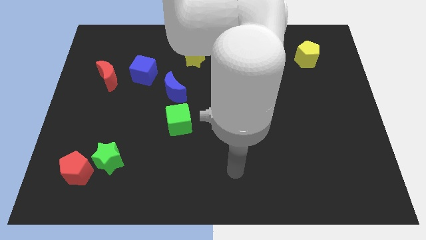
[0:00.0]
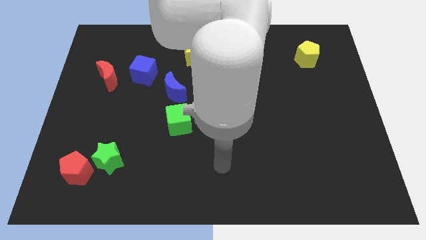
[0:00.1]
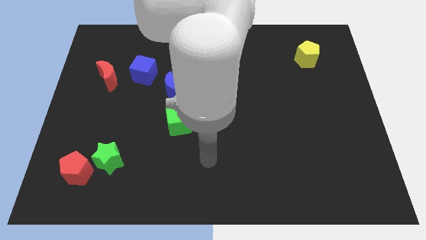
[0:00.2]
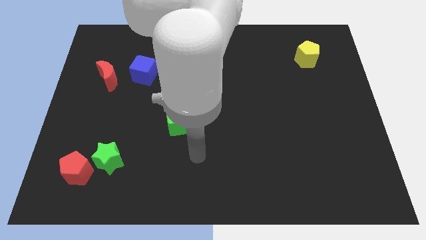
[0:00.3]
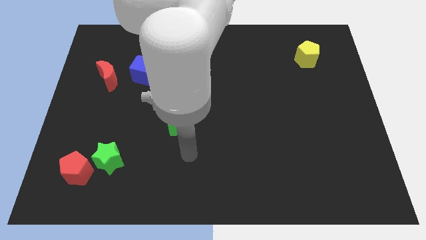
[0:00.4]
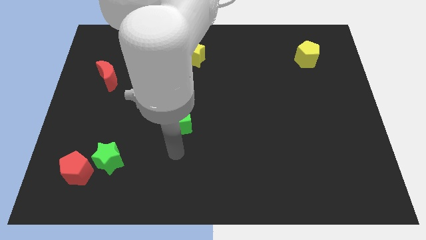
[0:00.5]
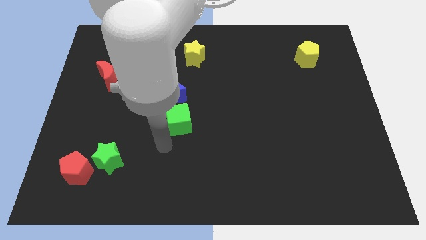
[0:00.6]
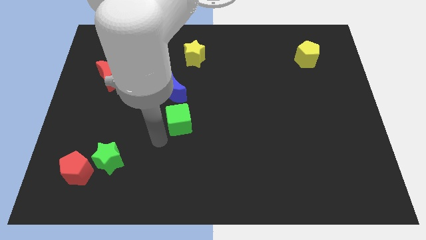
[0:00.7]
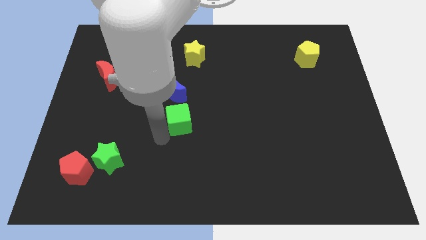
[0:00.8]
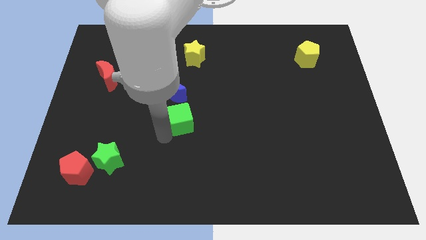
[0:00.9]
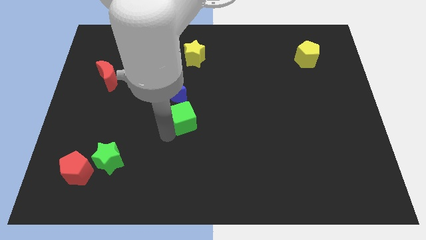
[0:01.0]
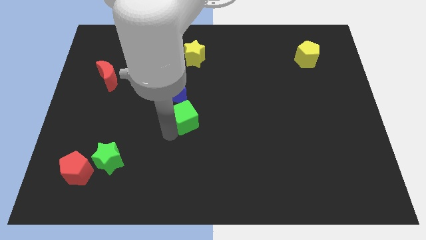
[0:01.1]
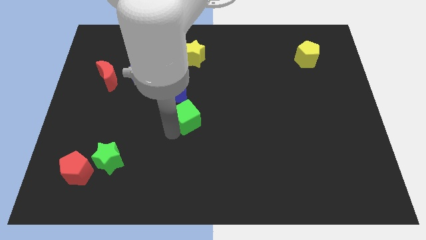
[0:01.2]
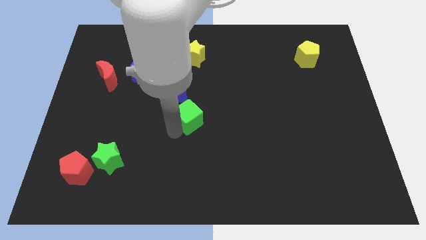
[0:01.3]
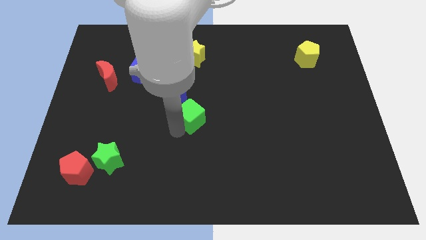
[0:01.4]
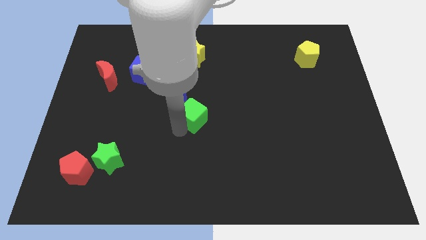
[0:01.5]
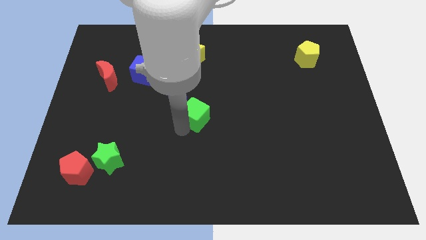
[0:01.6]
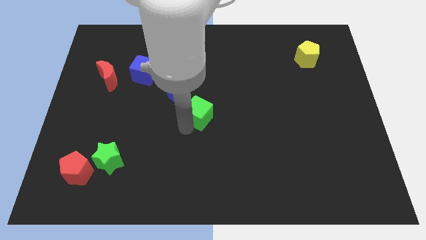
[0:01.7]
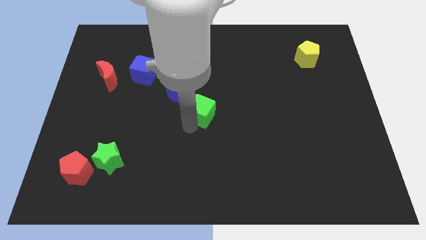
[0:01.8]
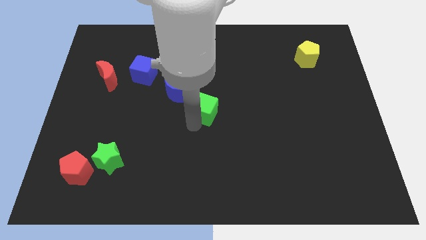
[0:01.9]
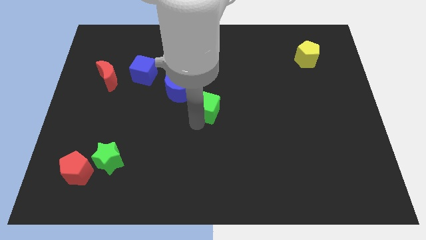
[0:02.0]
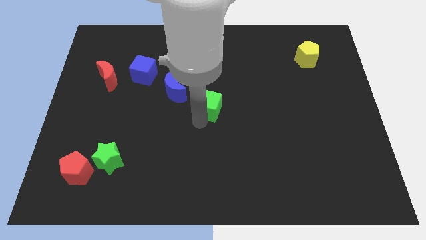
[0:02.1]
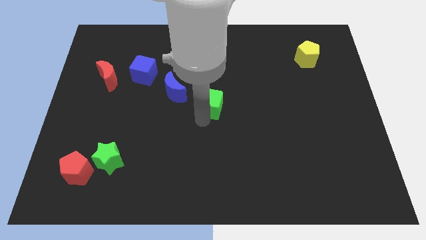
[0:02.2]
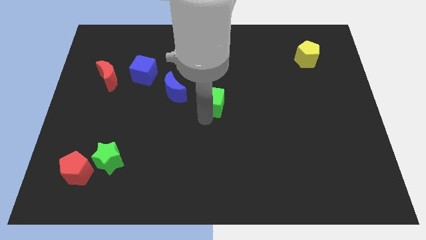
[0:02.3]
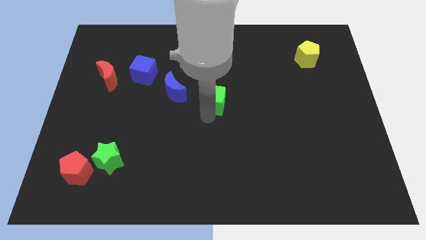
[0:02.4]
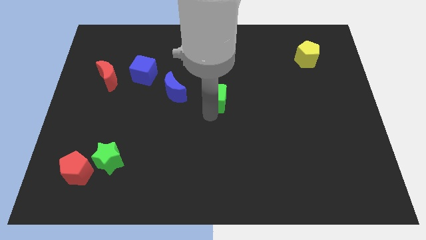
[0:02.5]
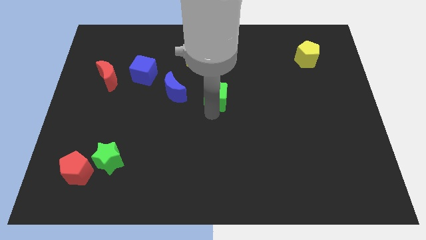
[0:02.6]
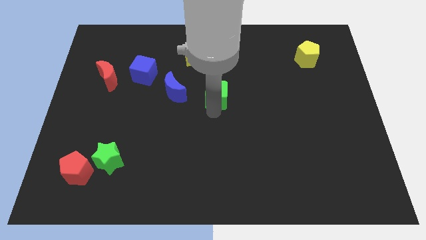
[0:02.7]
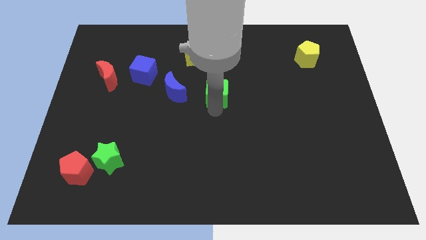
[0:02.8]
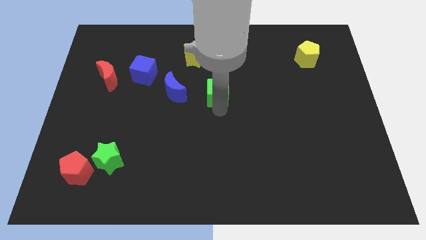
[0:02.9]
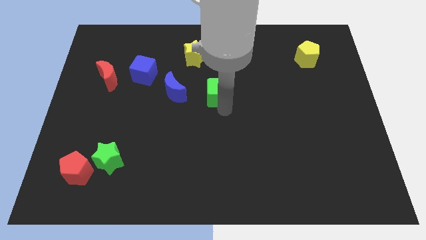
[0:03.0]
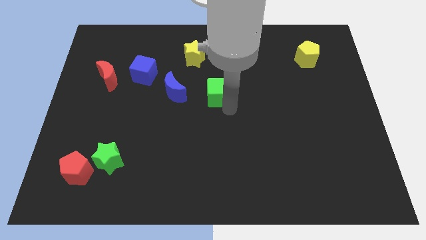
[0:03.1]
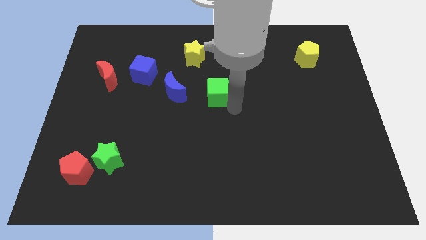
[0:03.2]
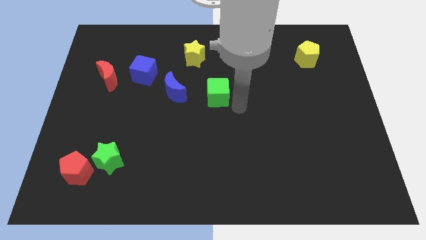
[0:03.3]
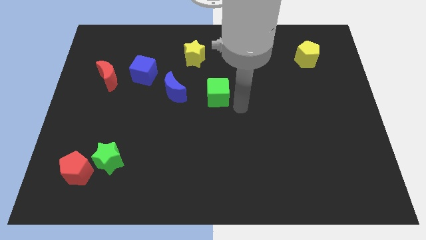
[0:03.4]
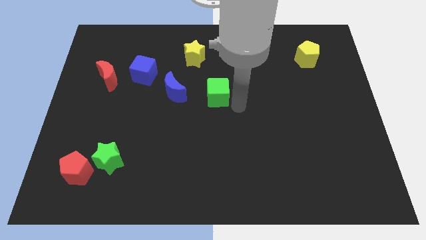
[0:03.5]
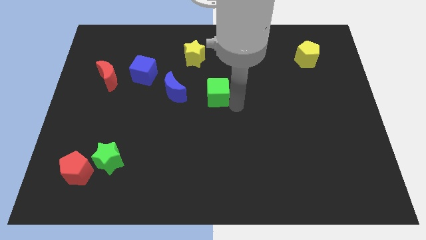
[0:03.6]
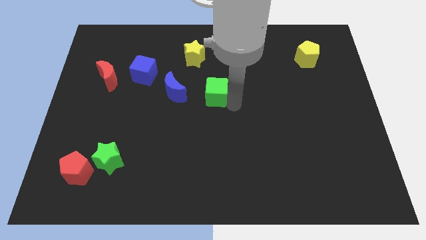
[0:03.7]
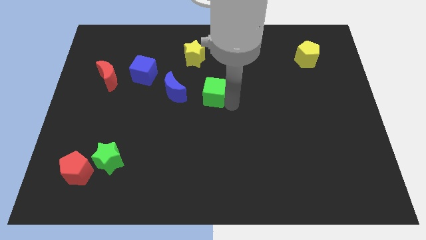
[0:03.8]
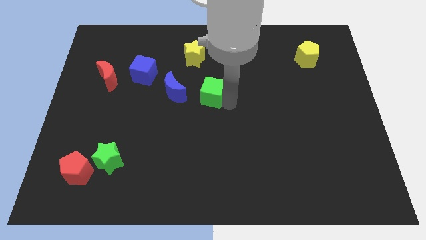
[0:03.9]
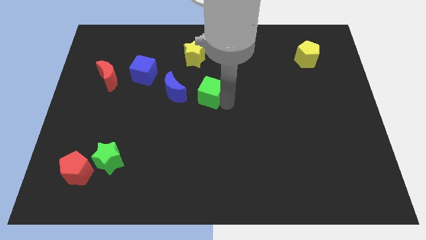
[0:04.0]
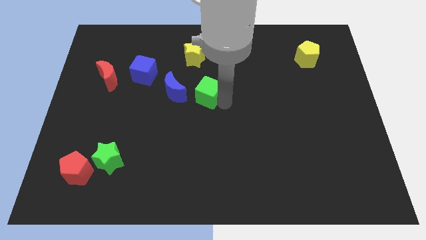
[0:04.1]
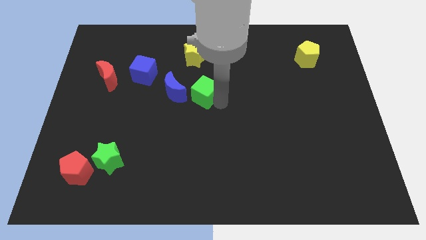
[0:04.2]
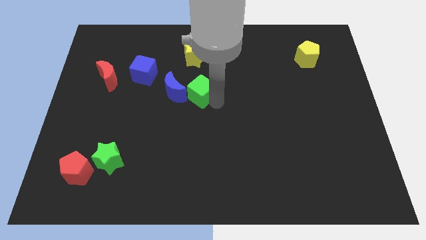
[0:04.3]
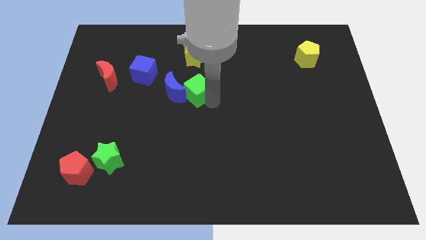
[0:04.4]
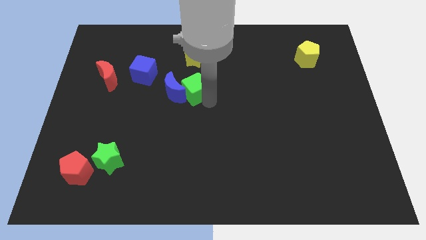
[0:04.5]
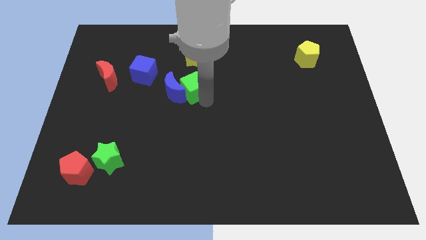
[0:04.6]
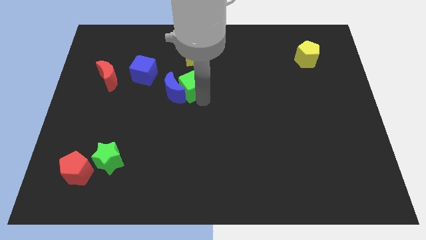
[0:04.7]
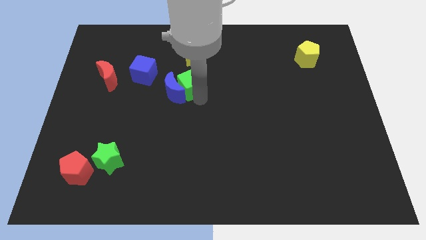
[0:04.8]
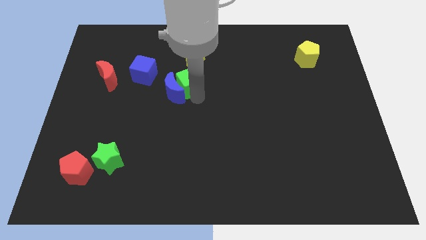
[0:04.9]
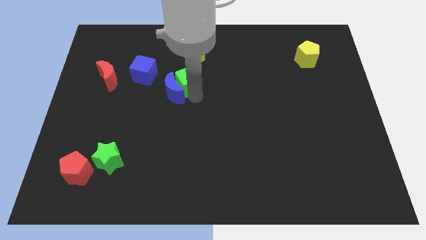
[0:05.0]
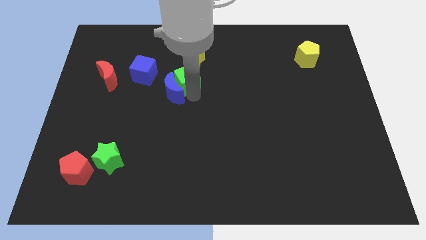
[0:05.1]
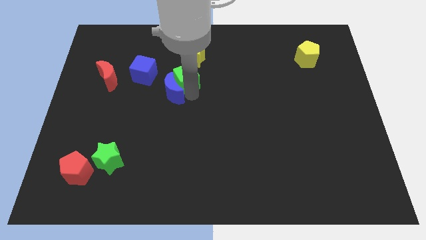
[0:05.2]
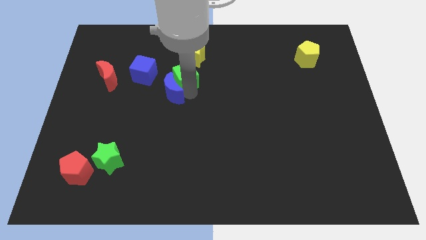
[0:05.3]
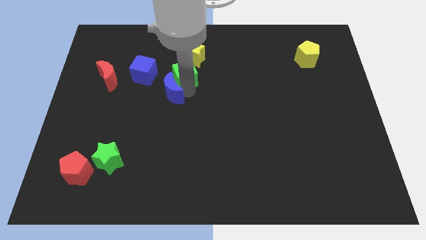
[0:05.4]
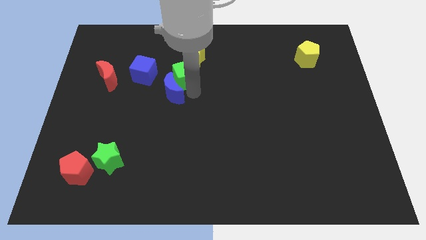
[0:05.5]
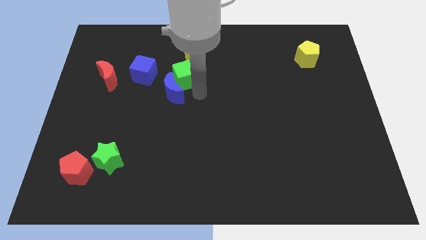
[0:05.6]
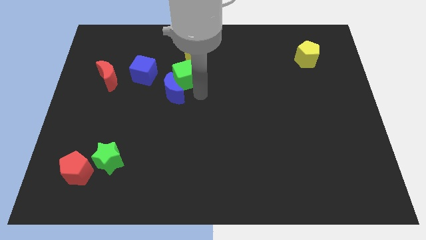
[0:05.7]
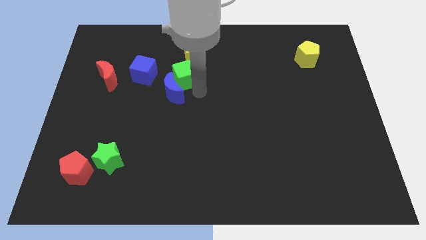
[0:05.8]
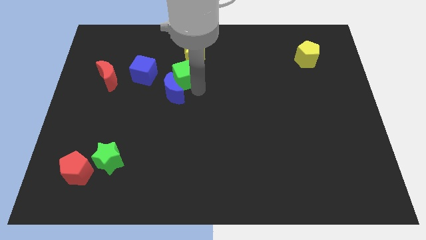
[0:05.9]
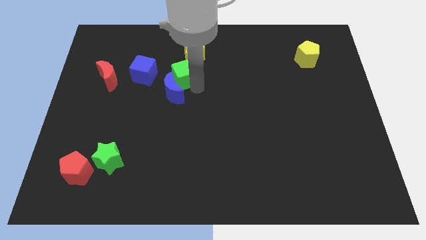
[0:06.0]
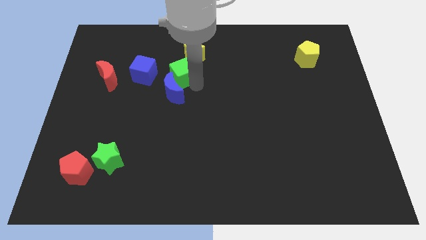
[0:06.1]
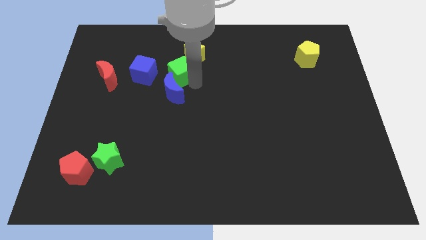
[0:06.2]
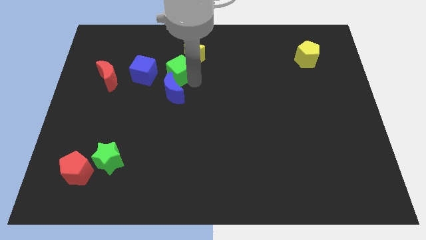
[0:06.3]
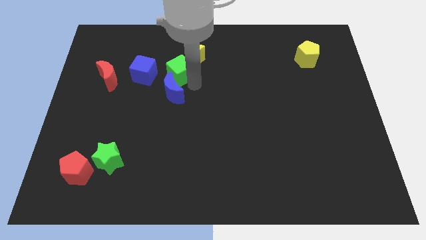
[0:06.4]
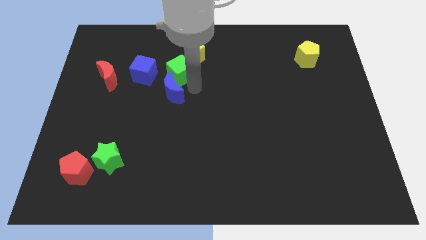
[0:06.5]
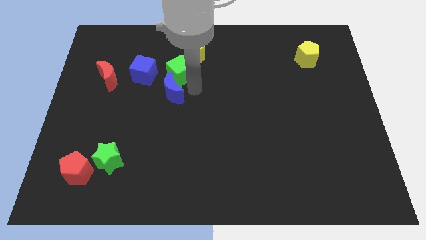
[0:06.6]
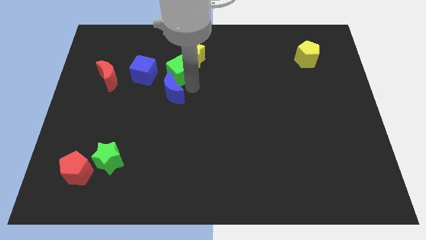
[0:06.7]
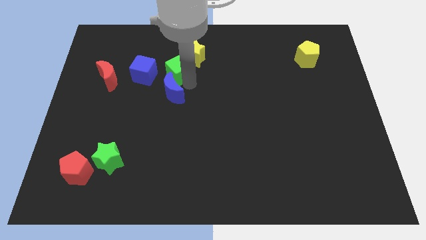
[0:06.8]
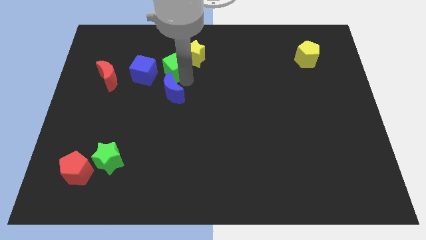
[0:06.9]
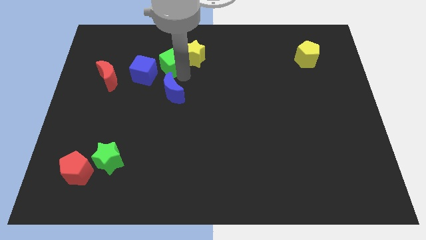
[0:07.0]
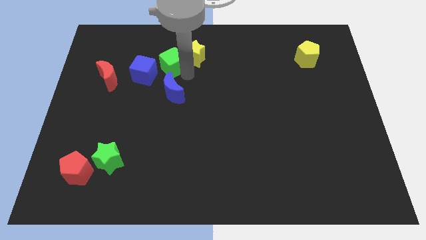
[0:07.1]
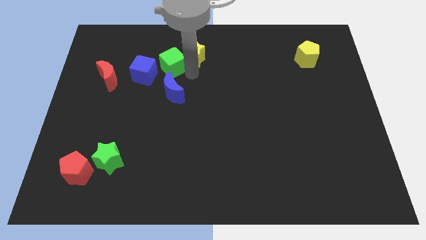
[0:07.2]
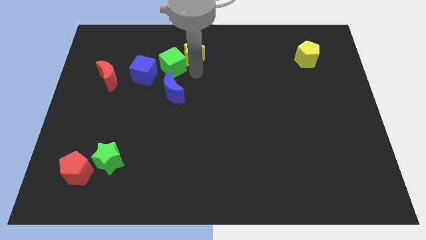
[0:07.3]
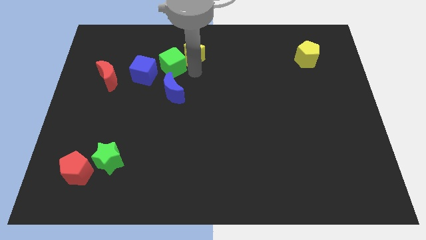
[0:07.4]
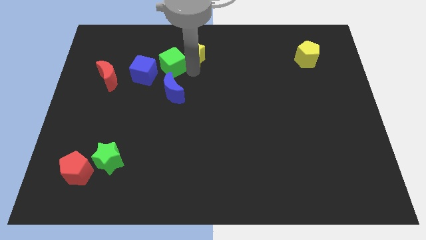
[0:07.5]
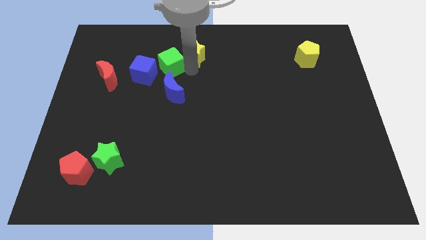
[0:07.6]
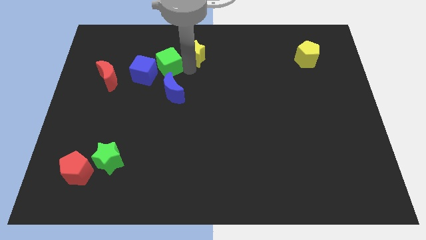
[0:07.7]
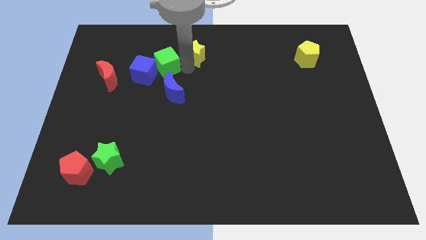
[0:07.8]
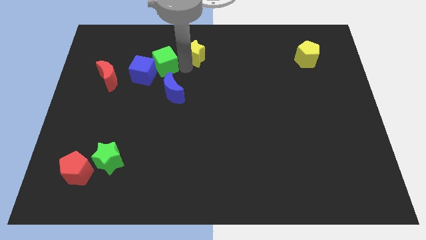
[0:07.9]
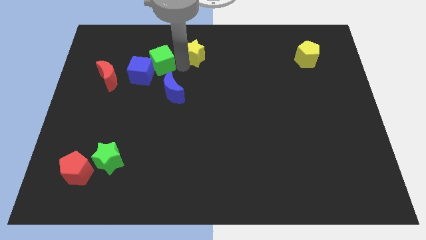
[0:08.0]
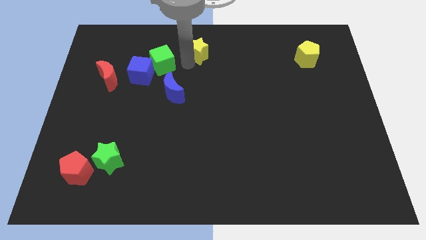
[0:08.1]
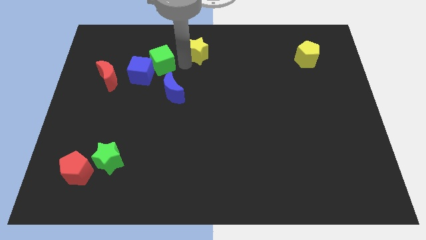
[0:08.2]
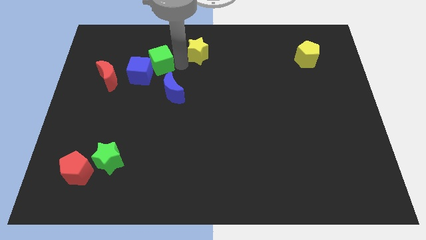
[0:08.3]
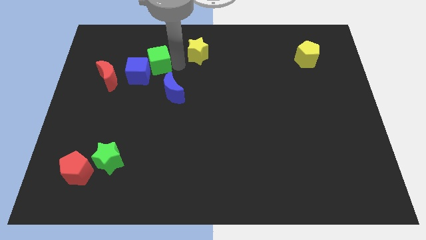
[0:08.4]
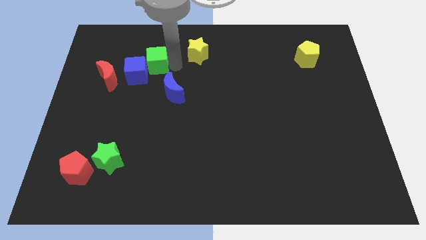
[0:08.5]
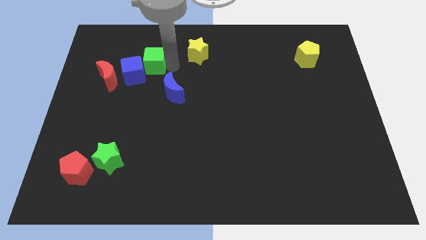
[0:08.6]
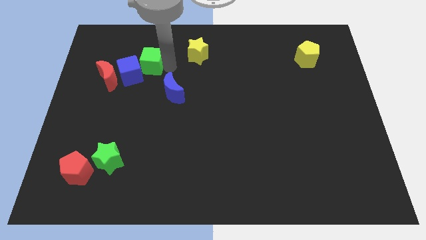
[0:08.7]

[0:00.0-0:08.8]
slide the green cube to the top right of the red moon
